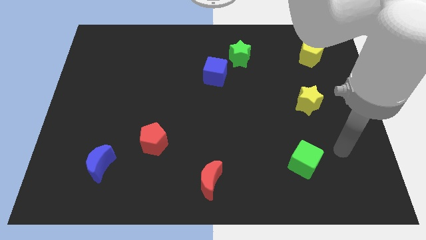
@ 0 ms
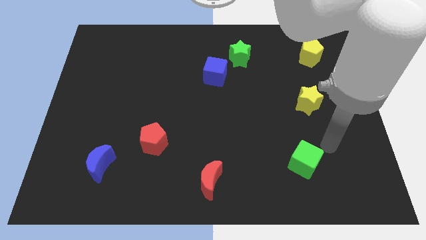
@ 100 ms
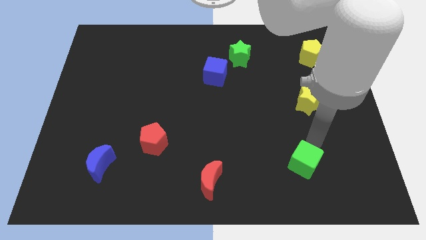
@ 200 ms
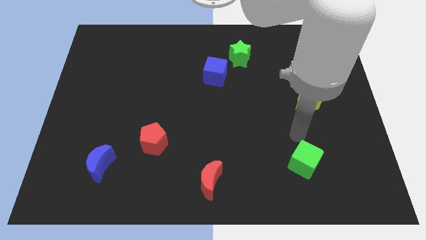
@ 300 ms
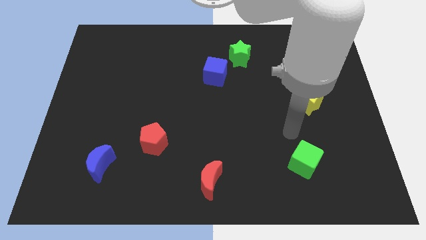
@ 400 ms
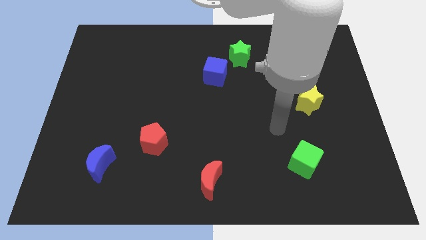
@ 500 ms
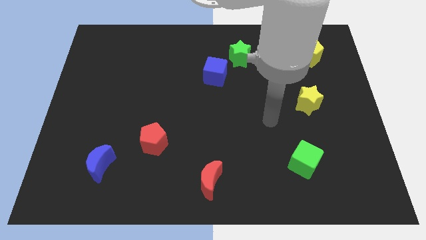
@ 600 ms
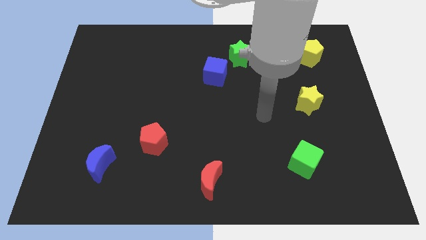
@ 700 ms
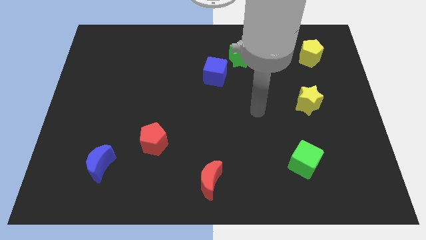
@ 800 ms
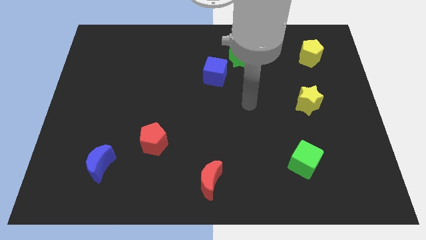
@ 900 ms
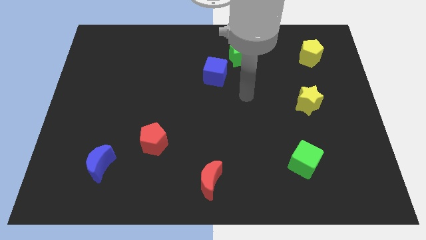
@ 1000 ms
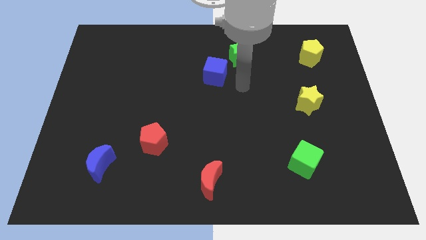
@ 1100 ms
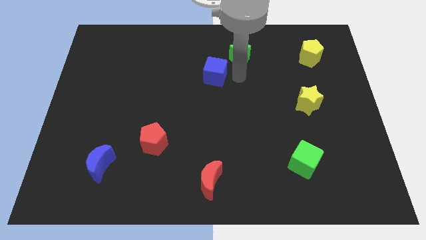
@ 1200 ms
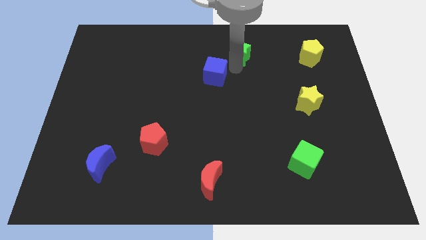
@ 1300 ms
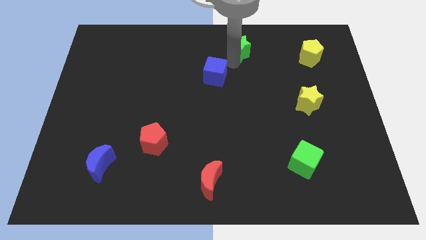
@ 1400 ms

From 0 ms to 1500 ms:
pull the blue cube apart from the green star

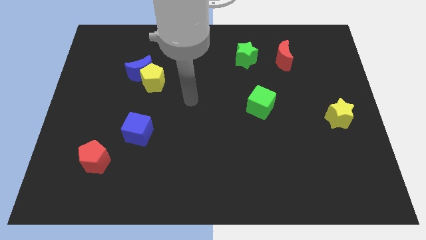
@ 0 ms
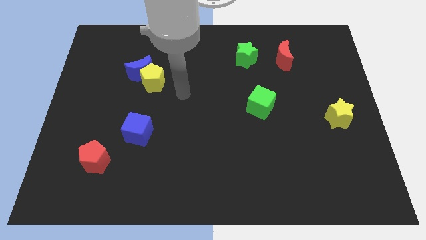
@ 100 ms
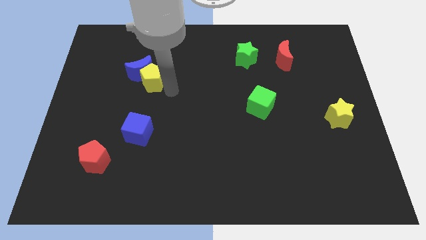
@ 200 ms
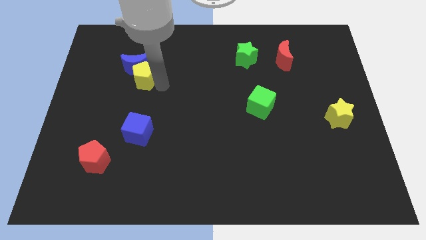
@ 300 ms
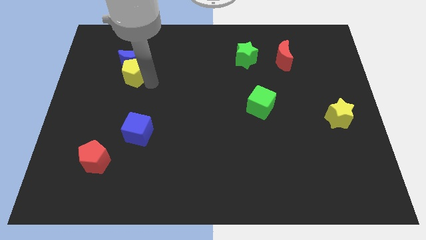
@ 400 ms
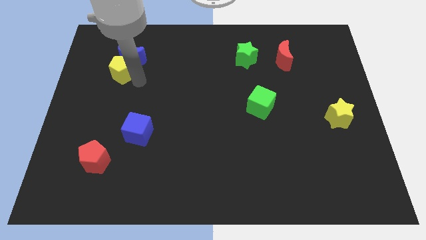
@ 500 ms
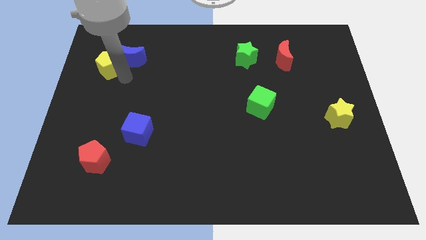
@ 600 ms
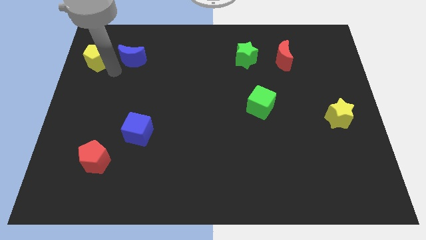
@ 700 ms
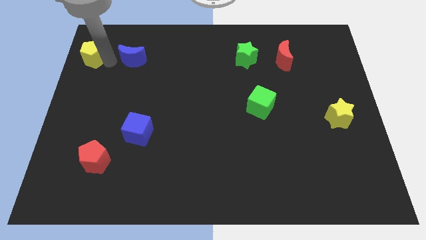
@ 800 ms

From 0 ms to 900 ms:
pull the blue moon apart from the yellow pentagon

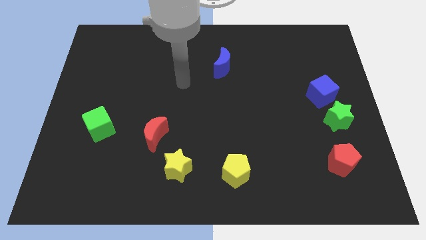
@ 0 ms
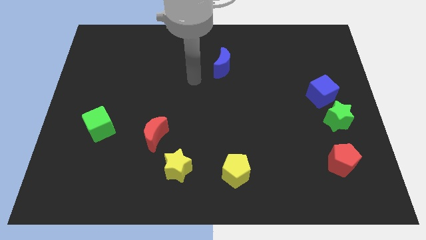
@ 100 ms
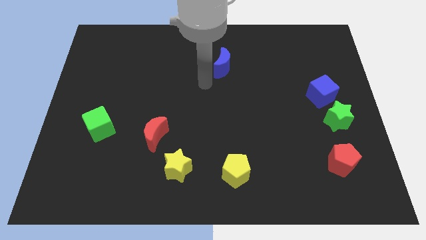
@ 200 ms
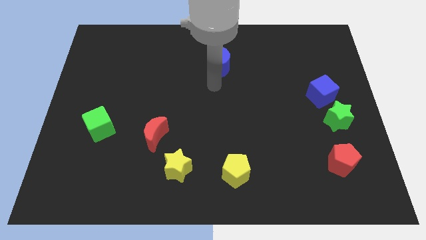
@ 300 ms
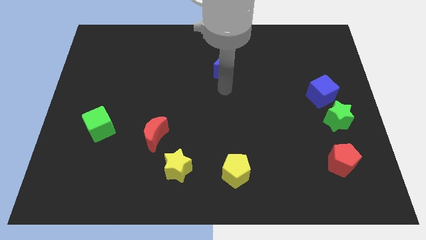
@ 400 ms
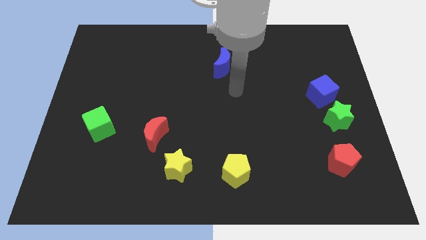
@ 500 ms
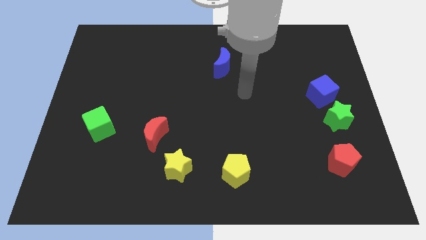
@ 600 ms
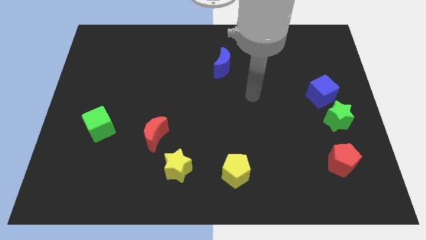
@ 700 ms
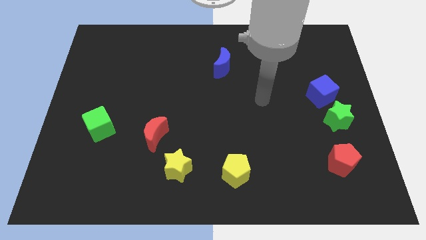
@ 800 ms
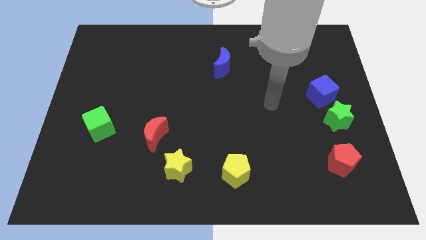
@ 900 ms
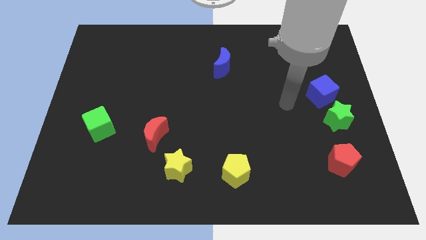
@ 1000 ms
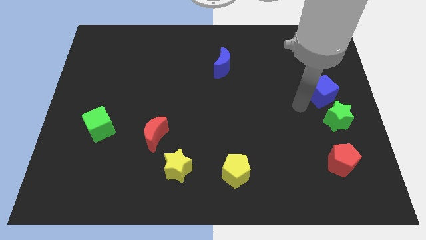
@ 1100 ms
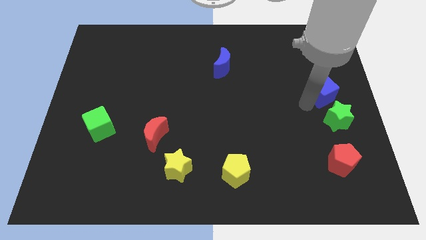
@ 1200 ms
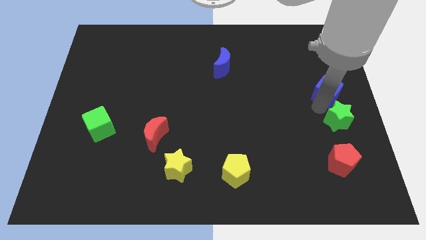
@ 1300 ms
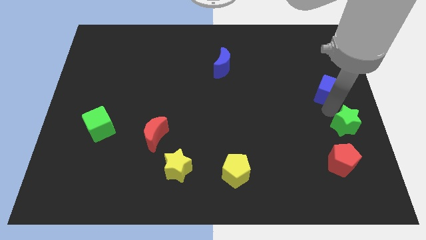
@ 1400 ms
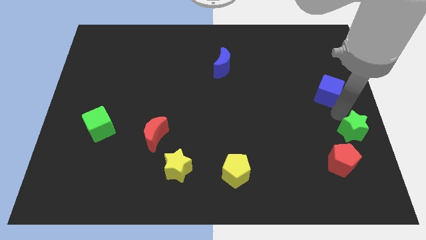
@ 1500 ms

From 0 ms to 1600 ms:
move the blue cube away from the green star

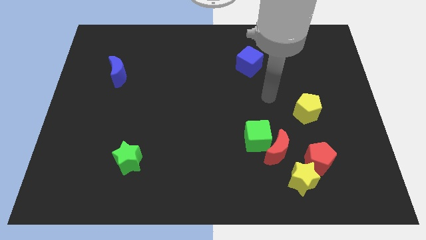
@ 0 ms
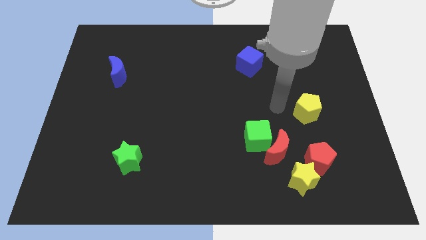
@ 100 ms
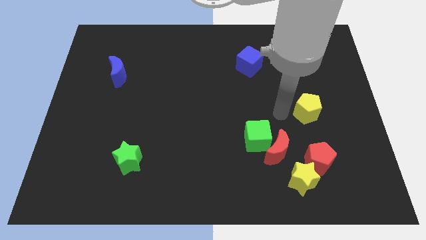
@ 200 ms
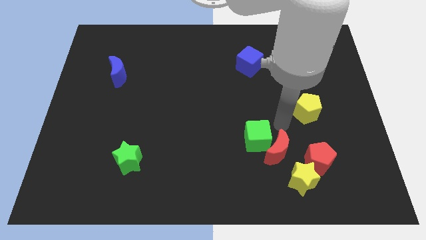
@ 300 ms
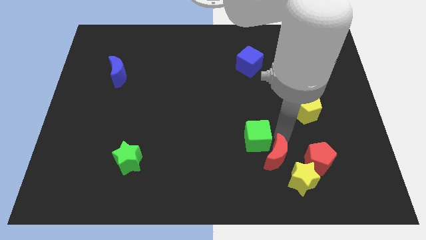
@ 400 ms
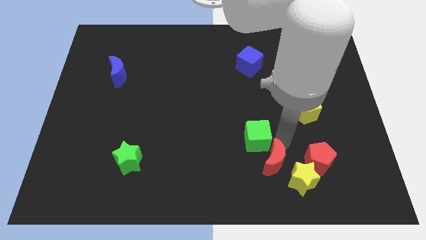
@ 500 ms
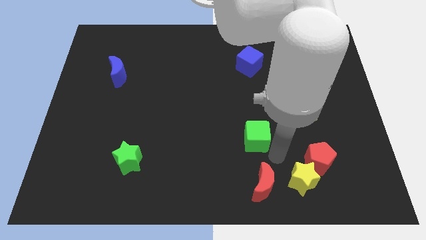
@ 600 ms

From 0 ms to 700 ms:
move the green cube away from the red moon

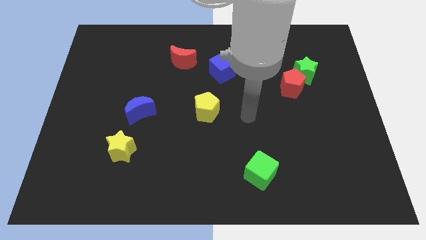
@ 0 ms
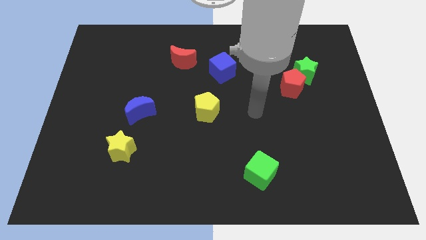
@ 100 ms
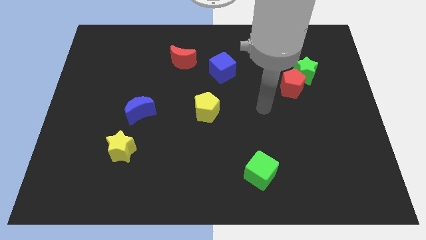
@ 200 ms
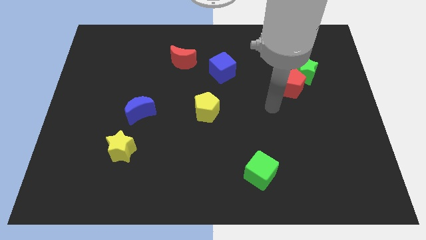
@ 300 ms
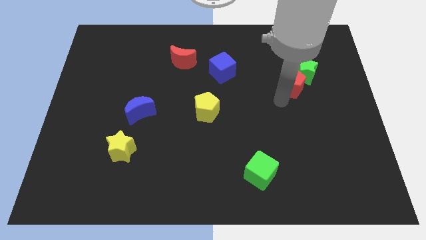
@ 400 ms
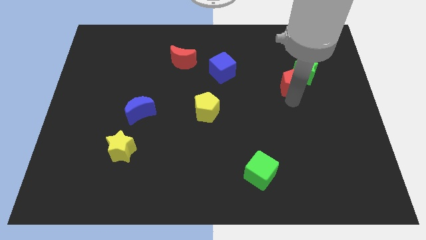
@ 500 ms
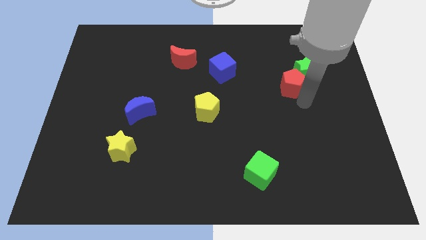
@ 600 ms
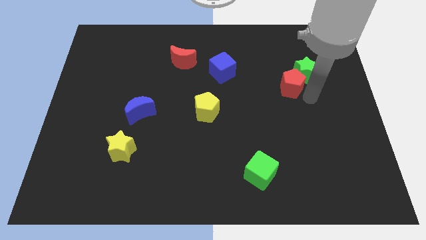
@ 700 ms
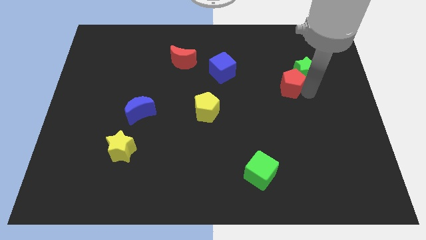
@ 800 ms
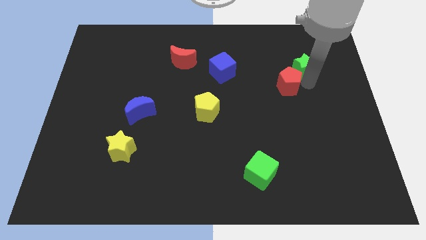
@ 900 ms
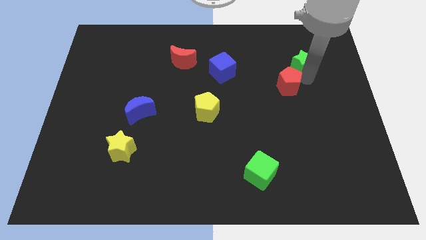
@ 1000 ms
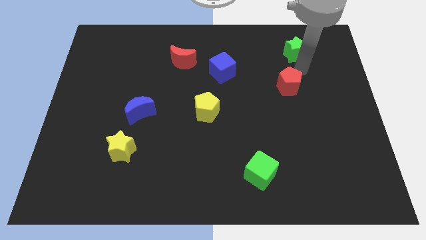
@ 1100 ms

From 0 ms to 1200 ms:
pull the red pentagon apart from the green star

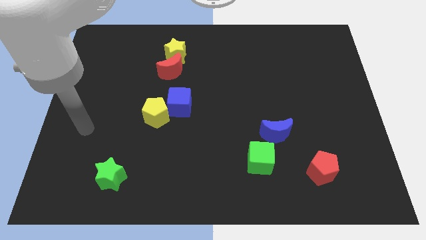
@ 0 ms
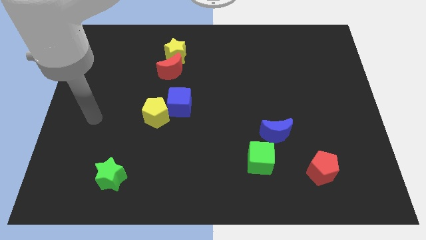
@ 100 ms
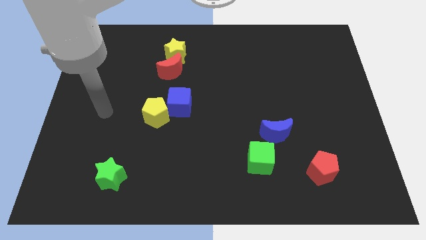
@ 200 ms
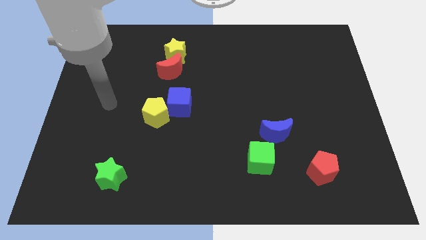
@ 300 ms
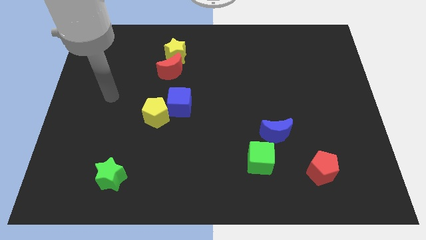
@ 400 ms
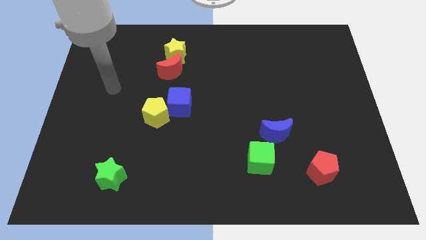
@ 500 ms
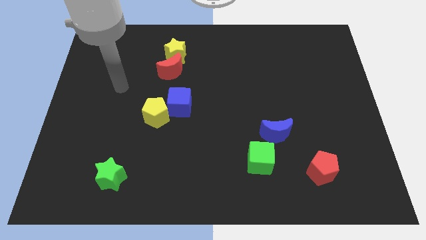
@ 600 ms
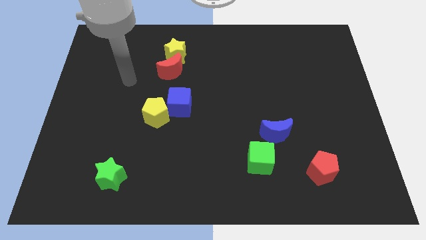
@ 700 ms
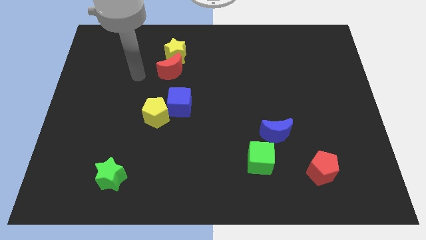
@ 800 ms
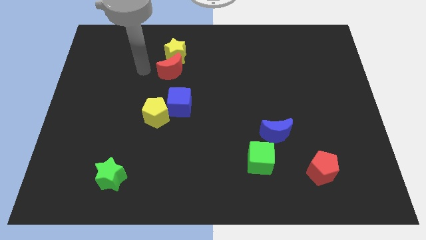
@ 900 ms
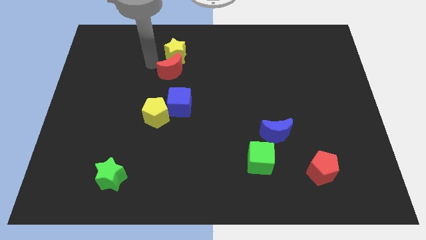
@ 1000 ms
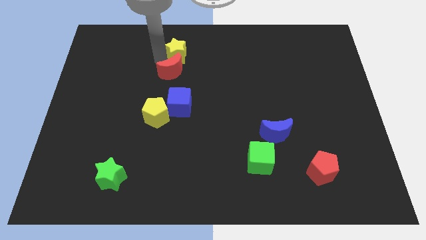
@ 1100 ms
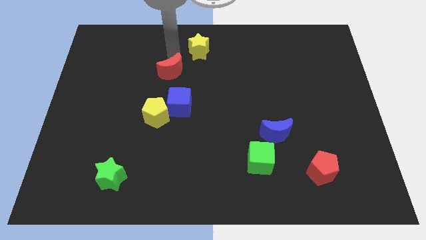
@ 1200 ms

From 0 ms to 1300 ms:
move the red moon away from the yellow star

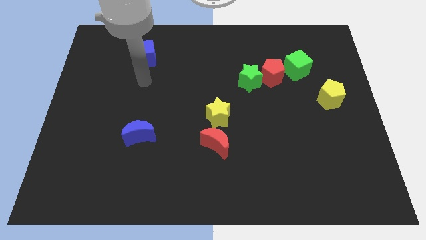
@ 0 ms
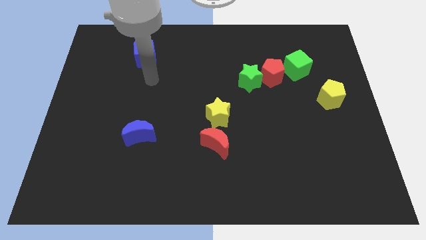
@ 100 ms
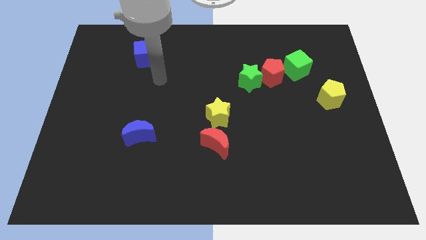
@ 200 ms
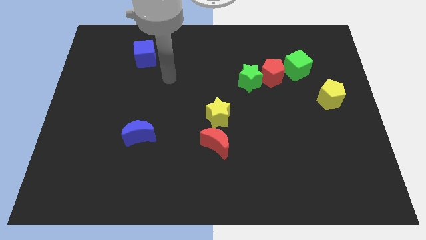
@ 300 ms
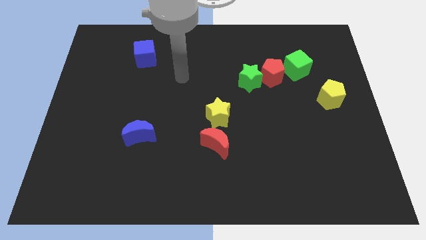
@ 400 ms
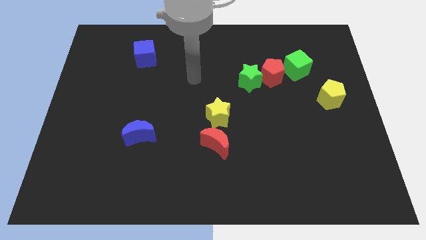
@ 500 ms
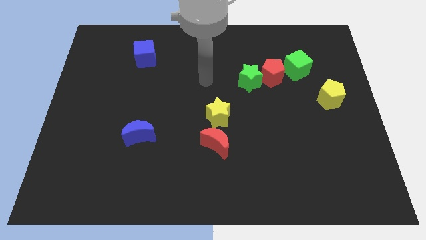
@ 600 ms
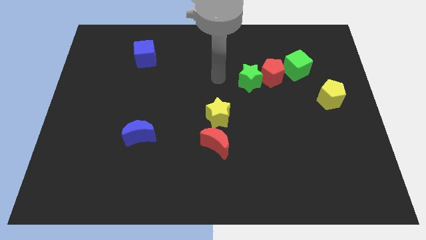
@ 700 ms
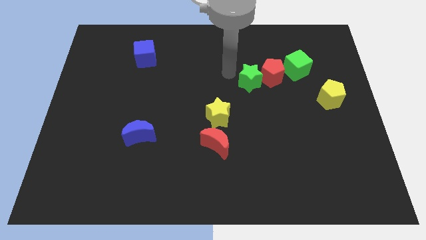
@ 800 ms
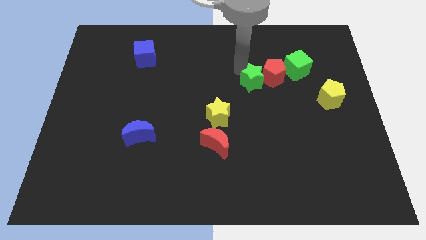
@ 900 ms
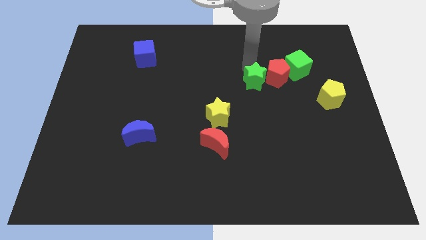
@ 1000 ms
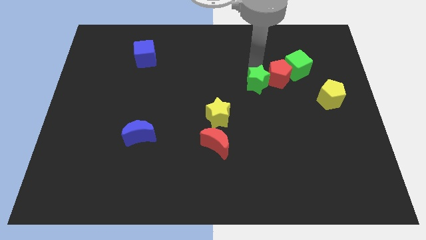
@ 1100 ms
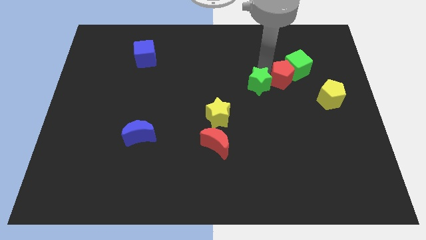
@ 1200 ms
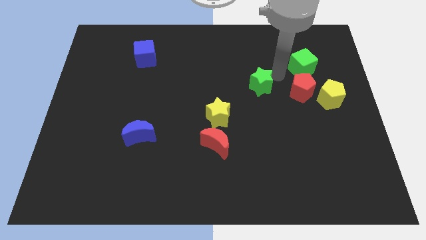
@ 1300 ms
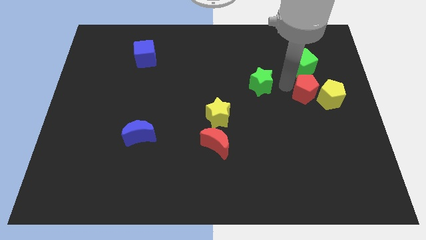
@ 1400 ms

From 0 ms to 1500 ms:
pull the green star apart from the red pentagon

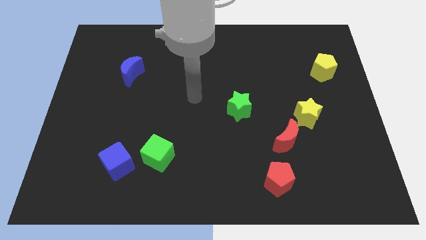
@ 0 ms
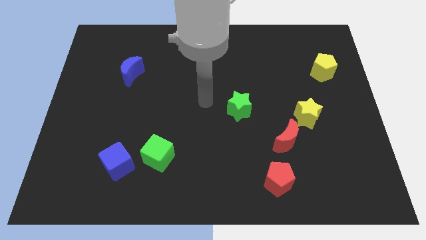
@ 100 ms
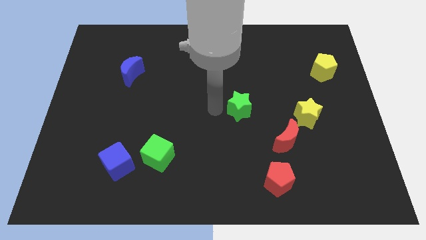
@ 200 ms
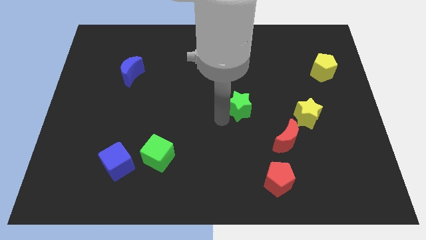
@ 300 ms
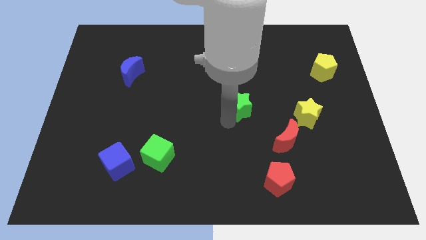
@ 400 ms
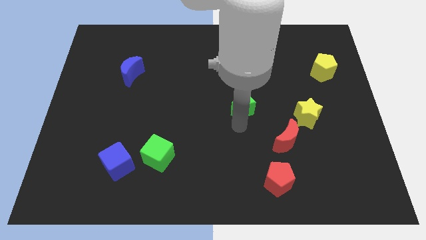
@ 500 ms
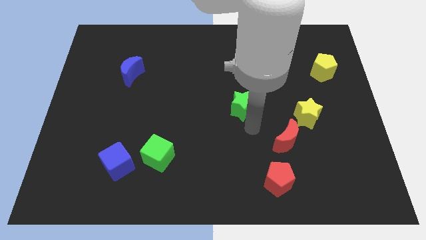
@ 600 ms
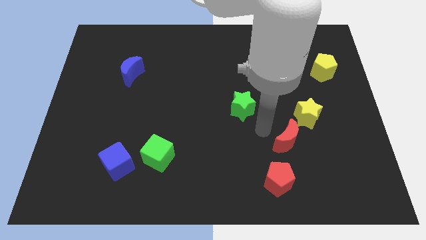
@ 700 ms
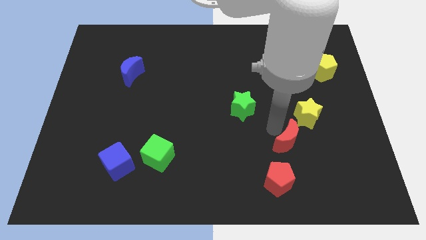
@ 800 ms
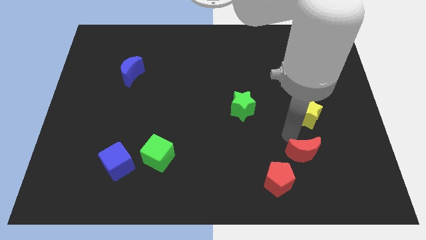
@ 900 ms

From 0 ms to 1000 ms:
pull the yellow star apart from the red moon
